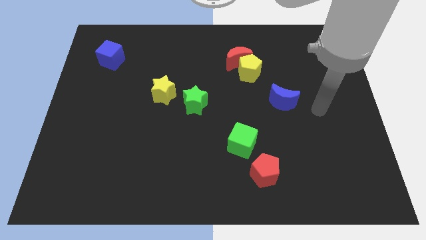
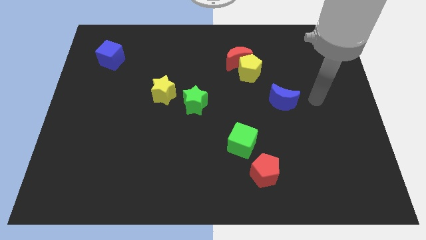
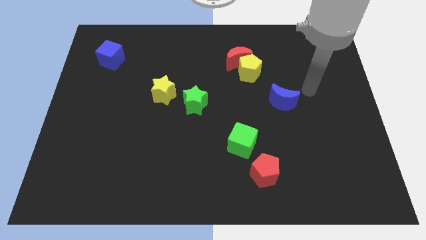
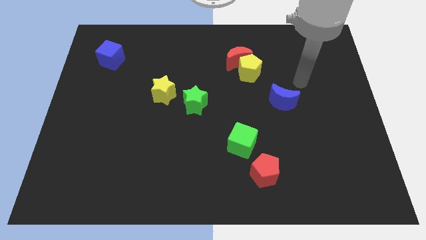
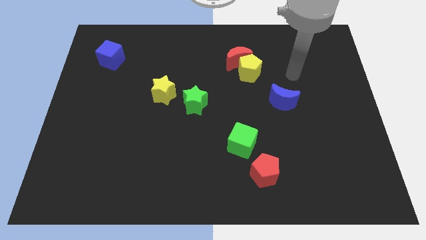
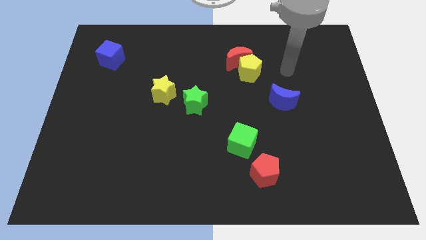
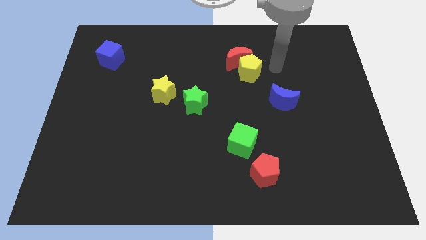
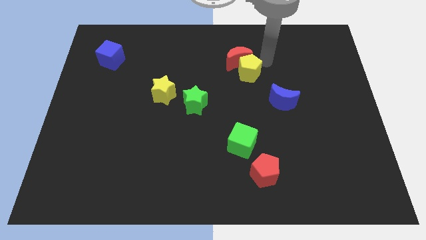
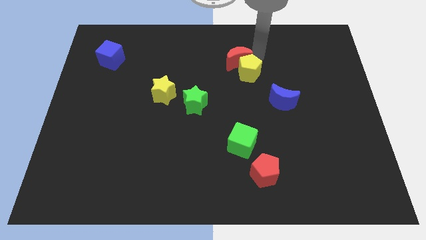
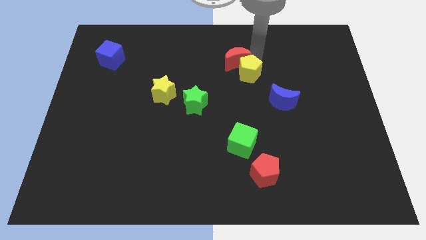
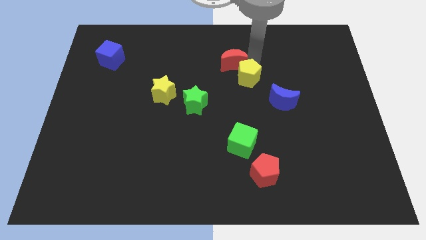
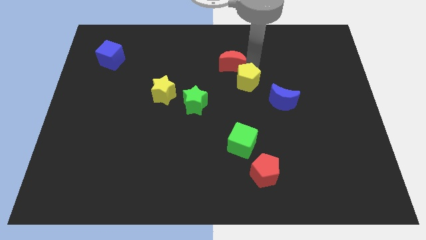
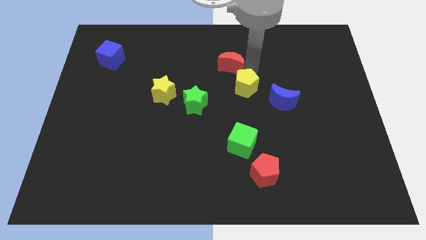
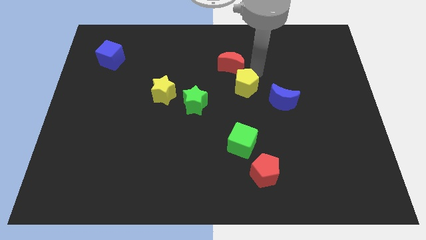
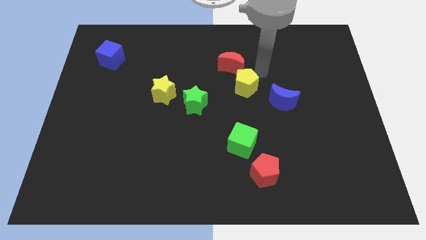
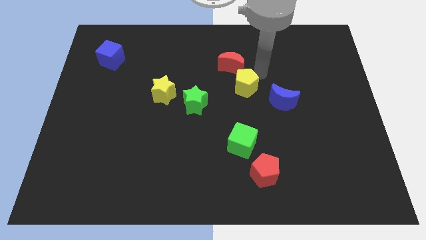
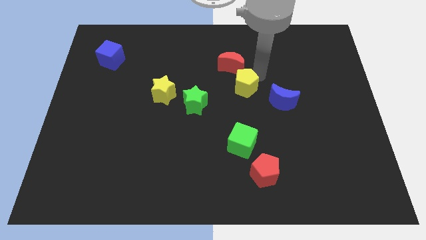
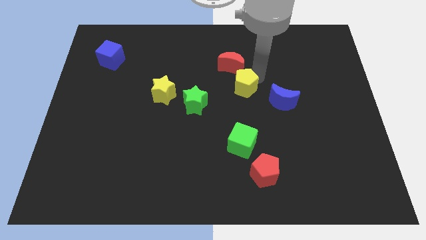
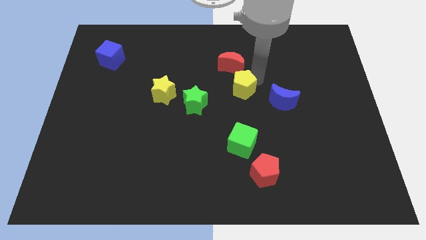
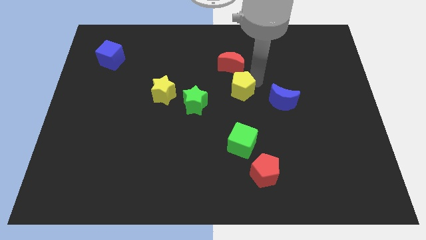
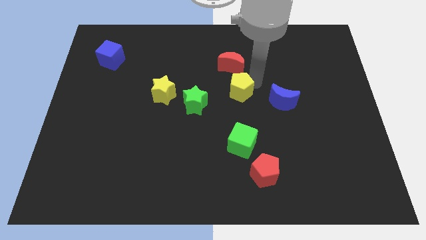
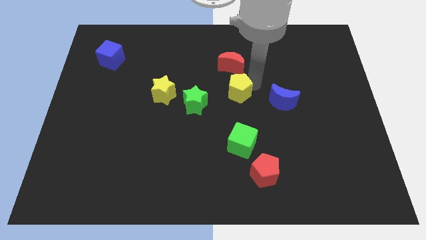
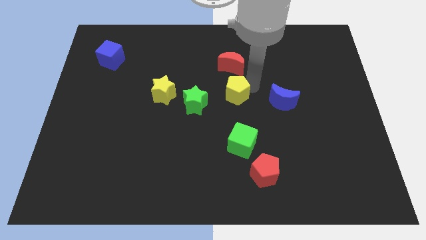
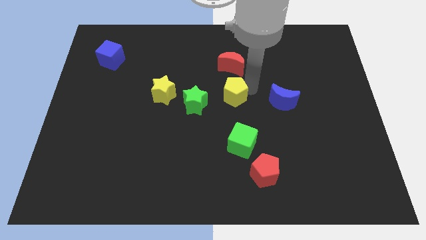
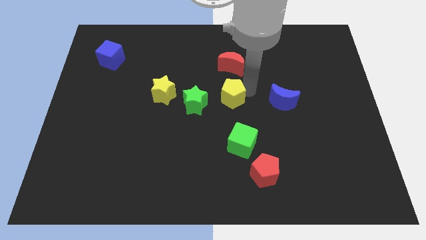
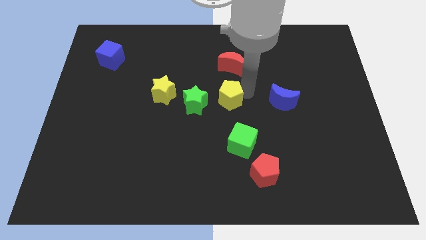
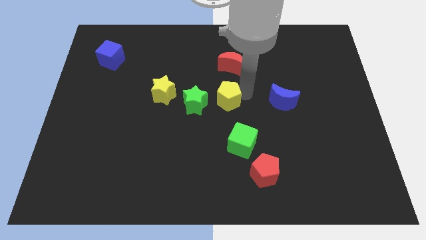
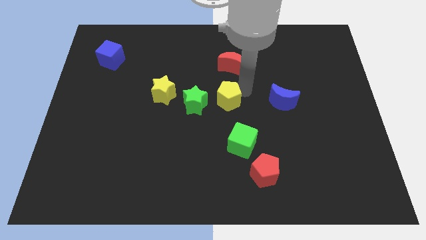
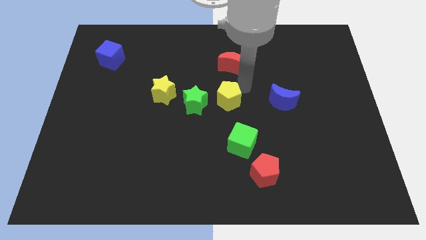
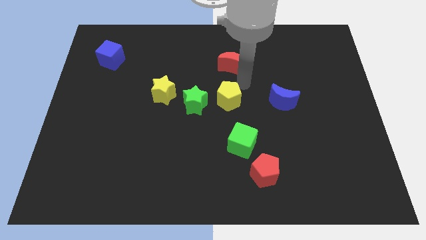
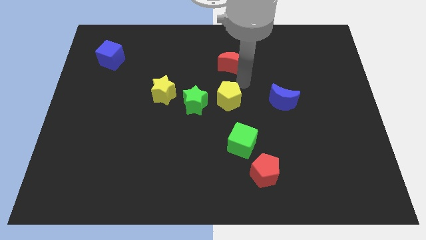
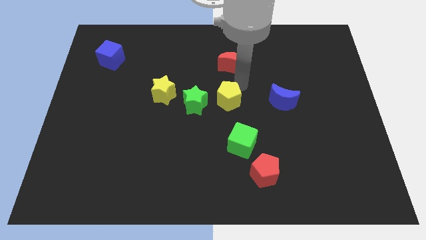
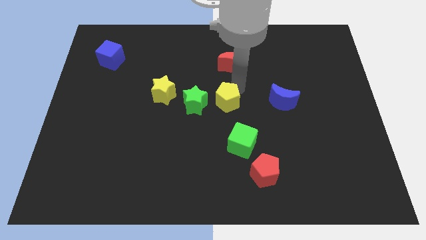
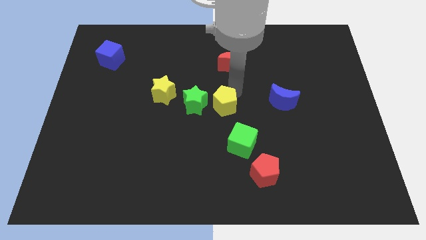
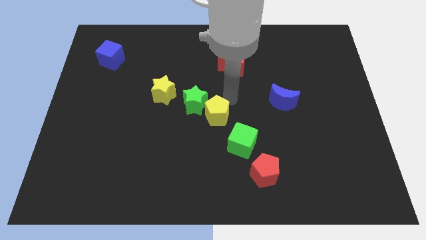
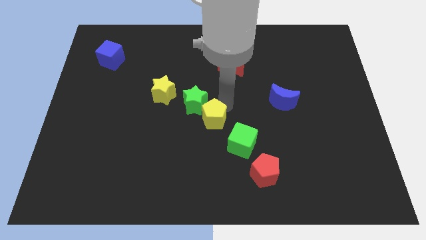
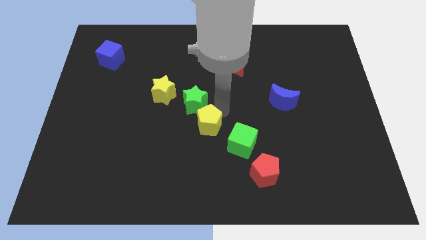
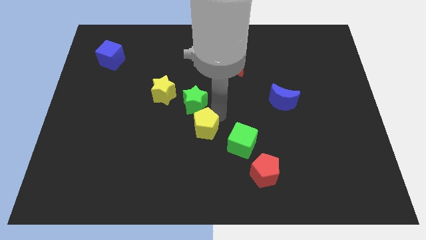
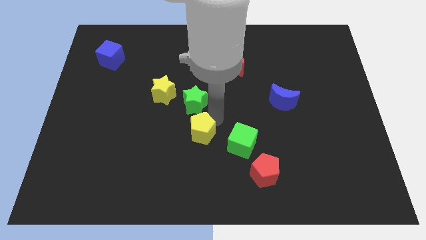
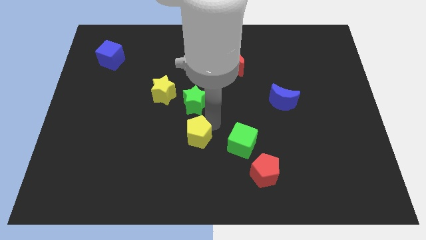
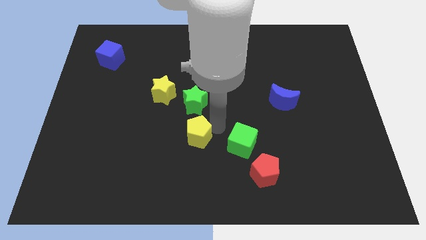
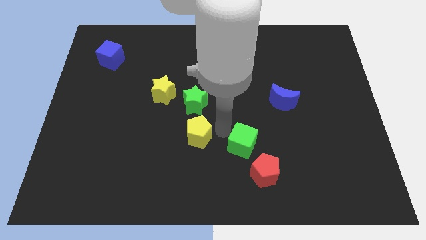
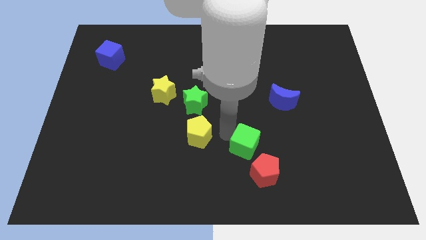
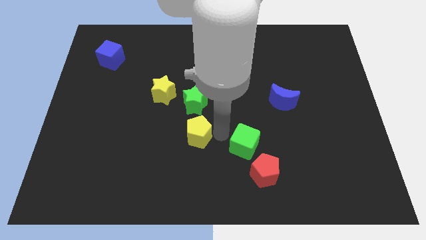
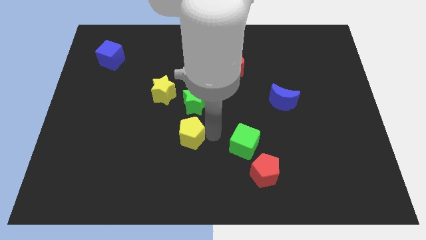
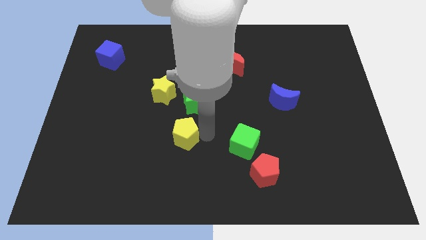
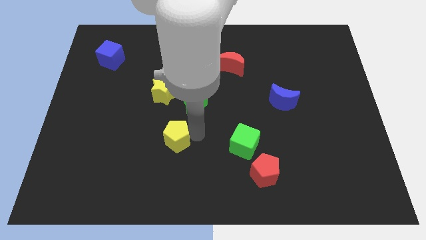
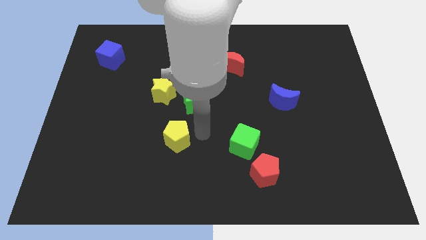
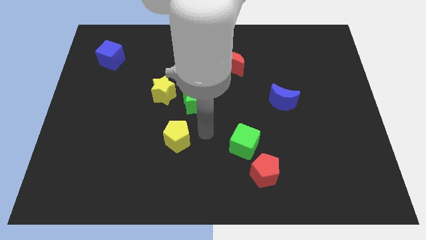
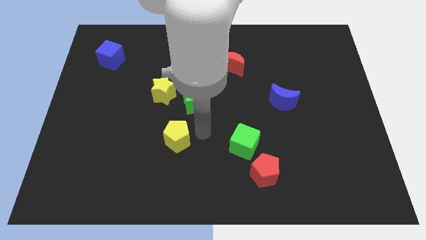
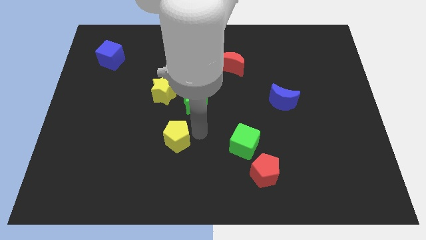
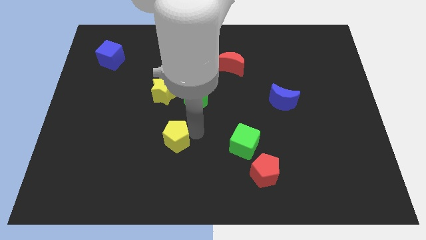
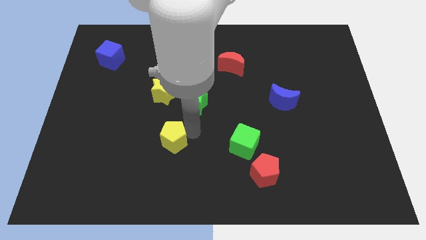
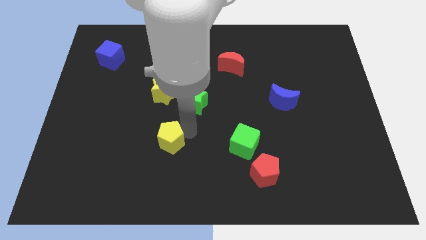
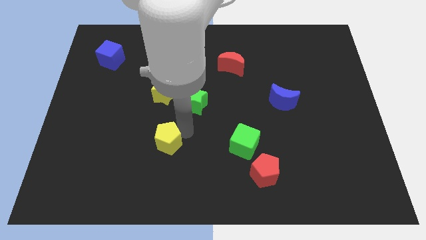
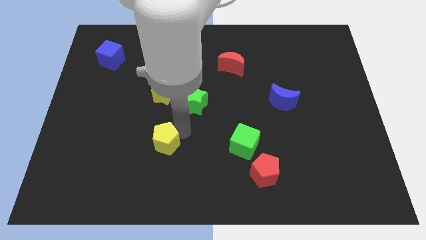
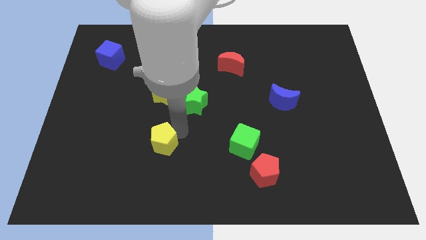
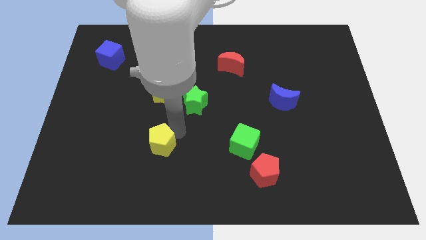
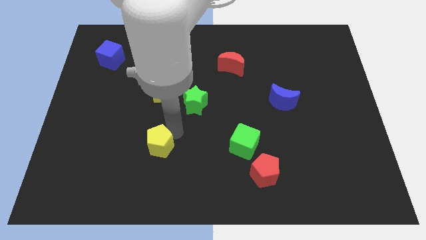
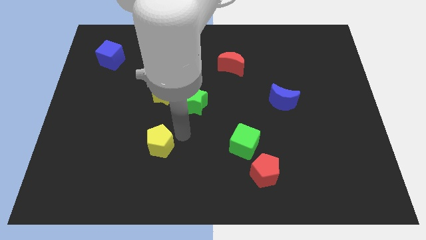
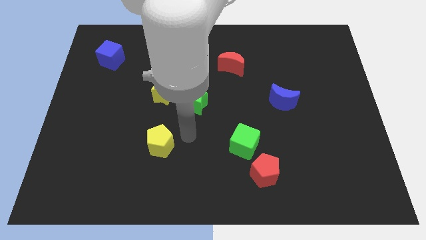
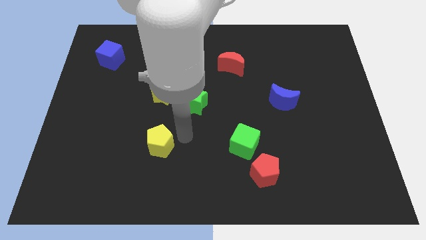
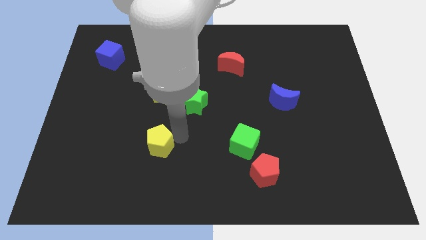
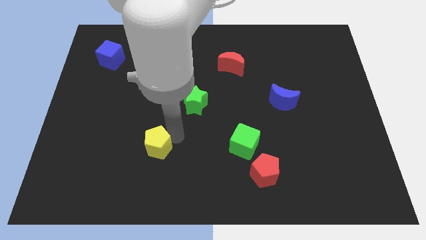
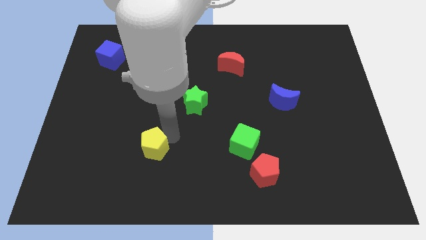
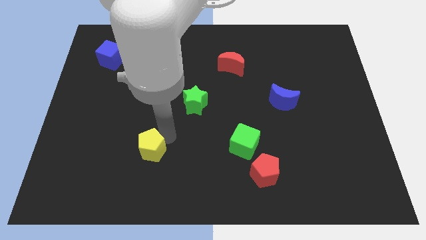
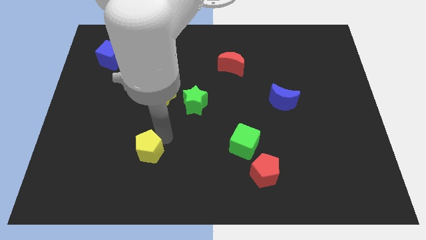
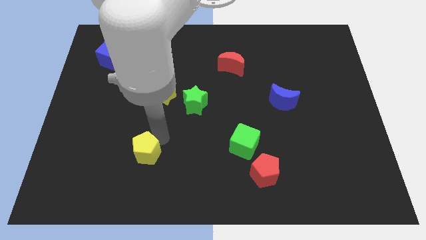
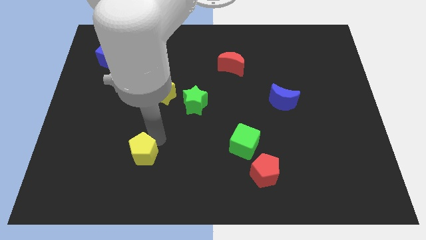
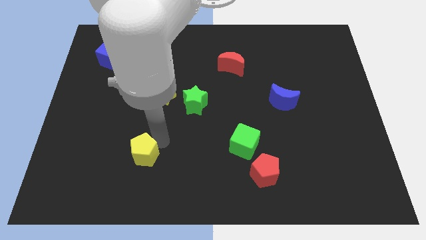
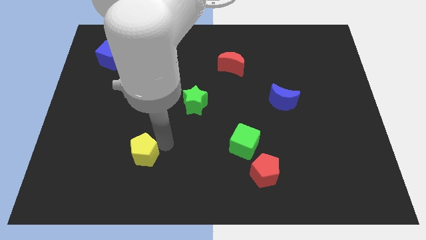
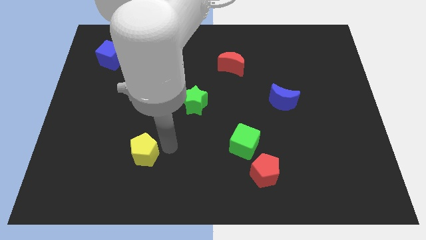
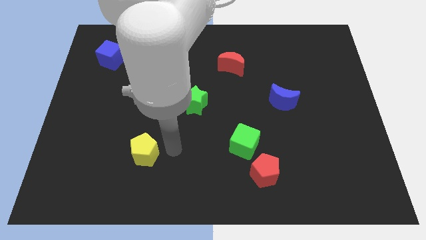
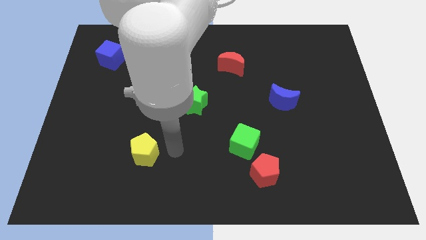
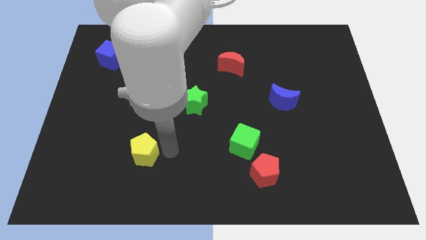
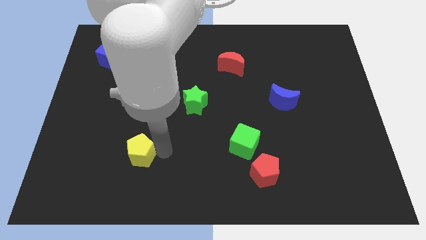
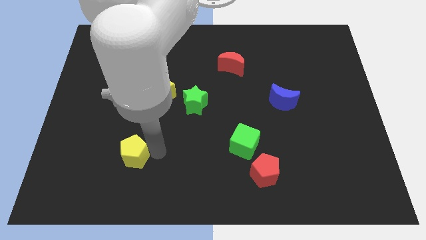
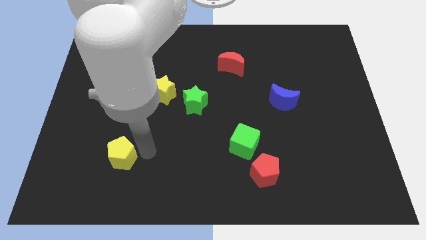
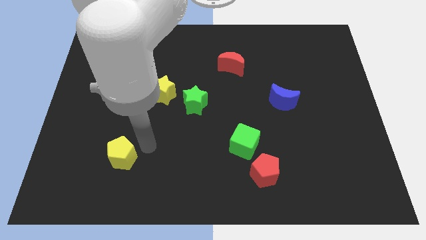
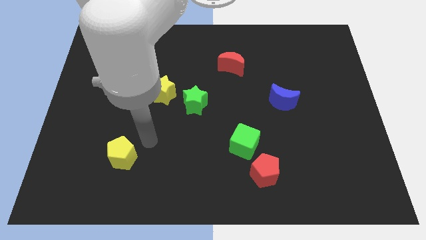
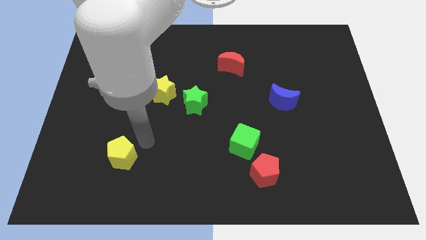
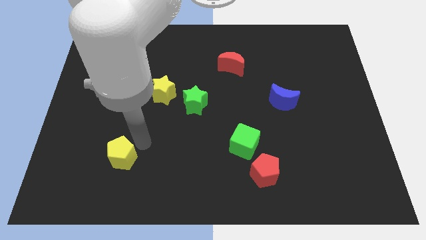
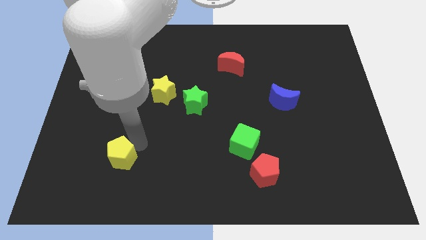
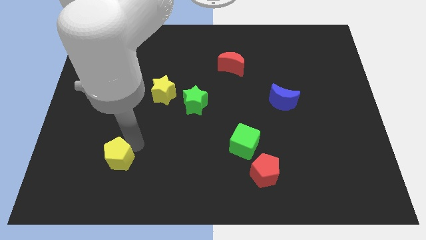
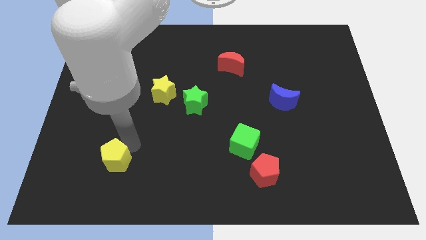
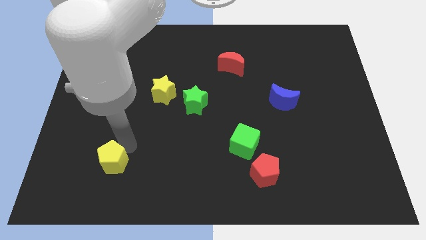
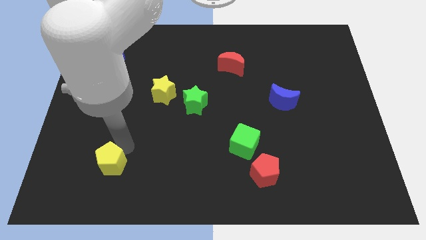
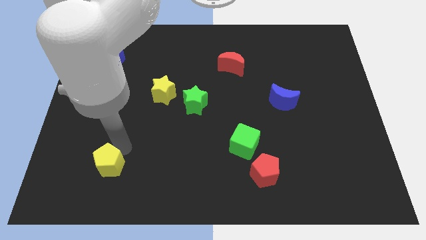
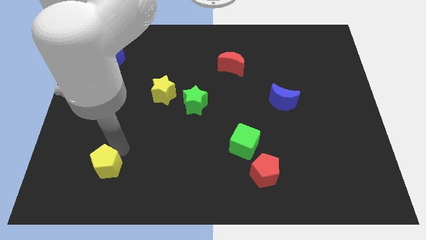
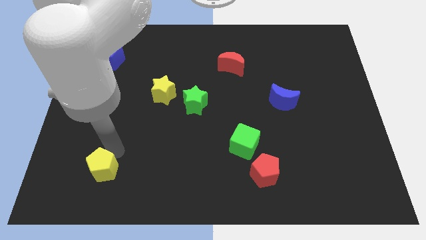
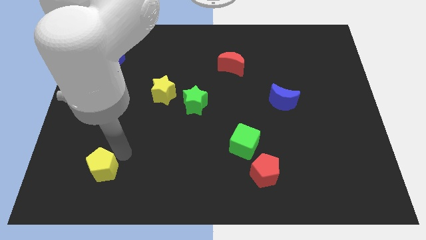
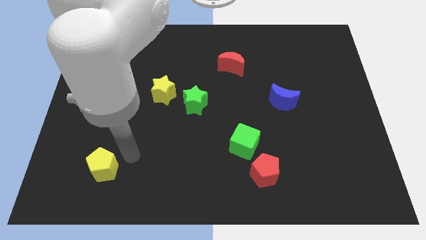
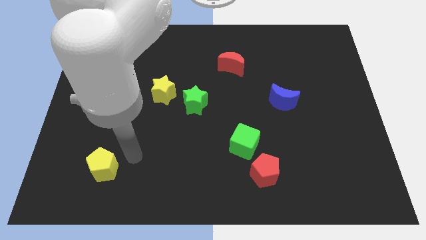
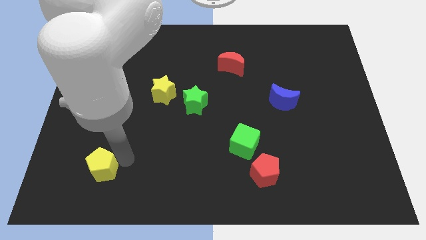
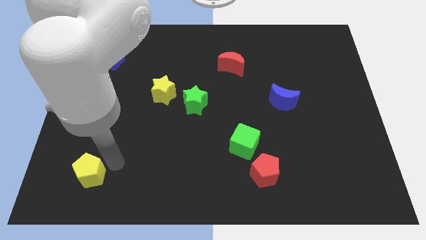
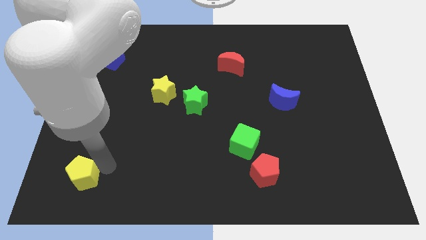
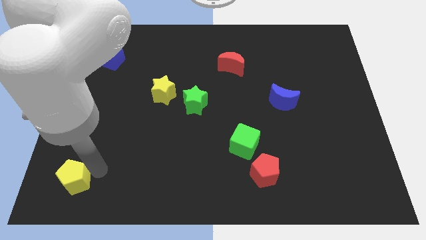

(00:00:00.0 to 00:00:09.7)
put the yellow pentagon to the lower left corner
